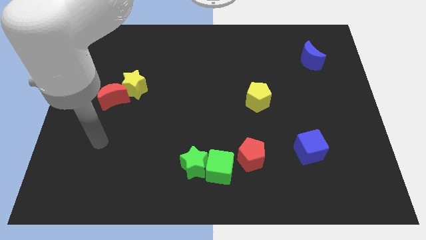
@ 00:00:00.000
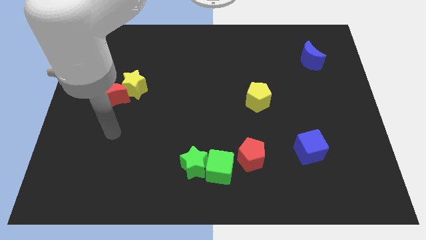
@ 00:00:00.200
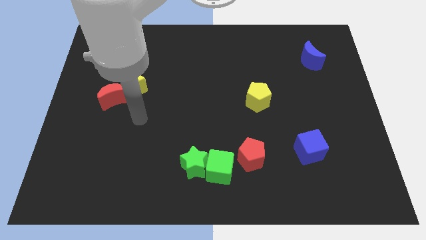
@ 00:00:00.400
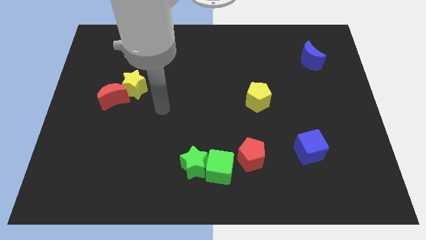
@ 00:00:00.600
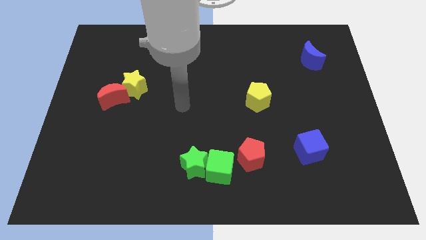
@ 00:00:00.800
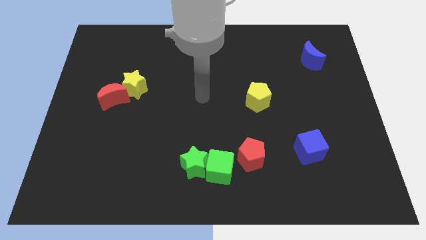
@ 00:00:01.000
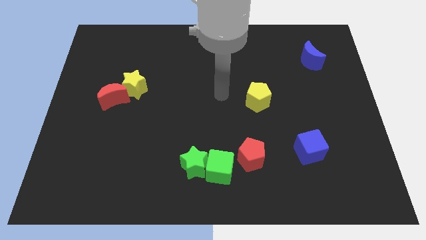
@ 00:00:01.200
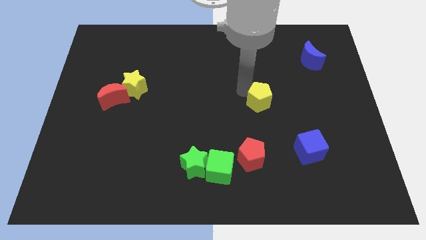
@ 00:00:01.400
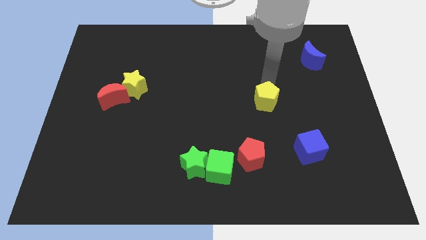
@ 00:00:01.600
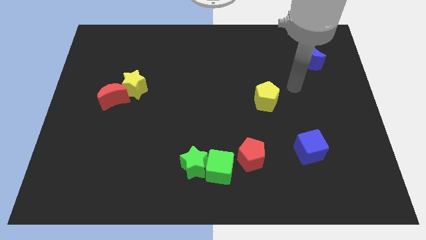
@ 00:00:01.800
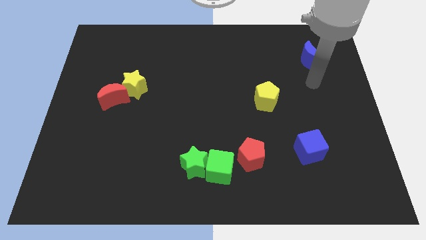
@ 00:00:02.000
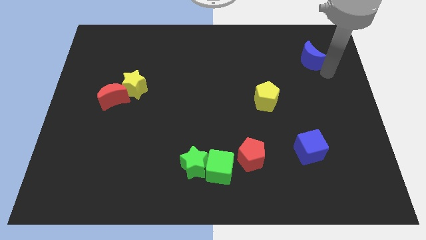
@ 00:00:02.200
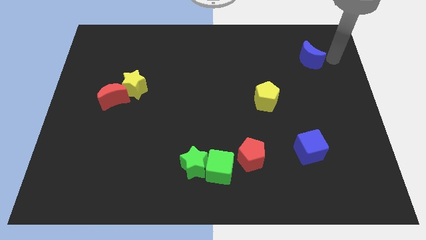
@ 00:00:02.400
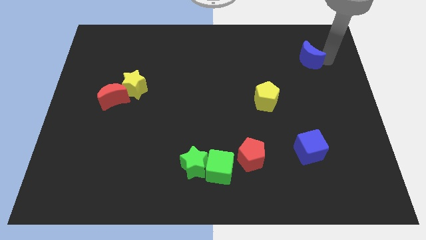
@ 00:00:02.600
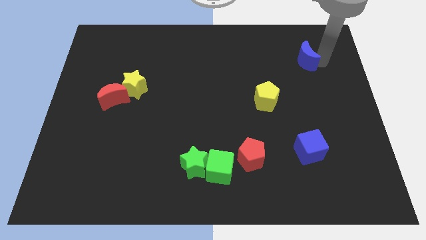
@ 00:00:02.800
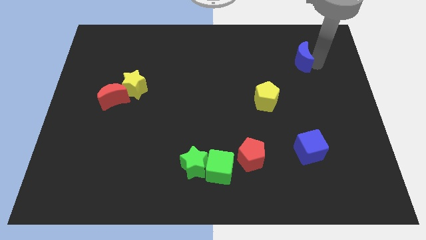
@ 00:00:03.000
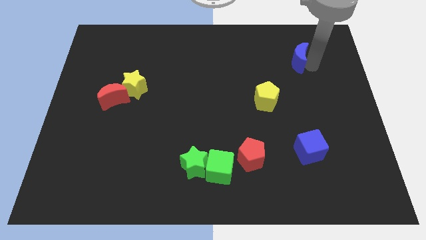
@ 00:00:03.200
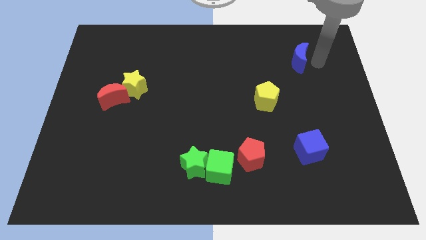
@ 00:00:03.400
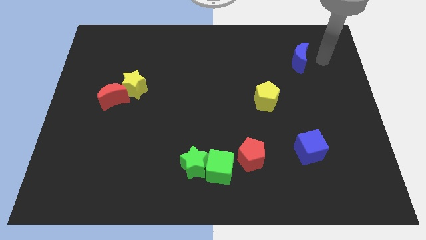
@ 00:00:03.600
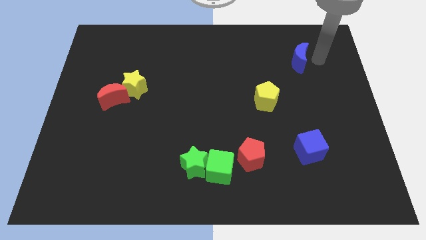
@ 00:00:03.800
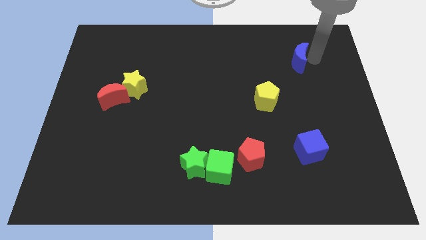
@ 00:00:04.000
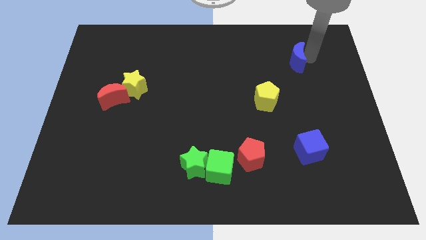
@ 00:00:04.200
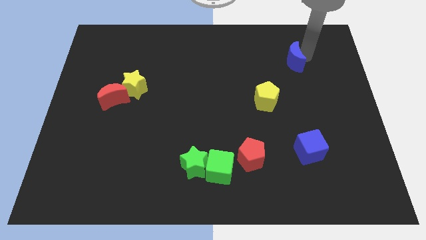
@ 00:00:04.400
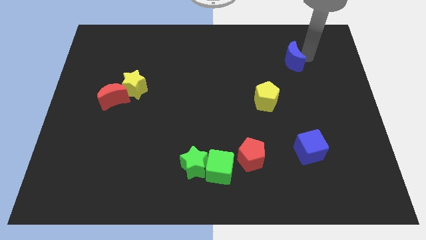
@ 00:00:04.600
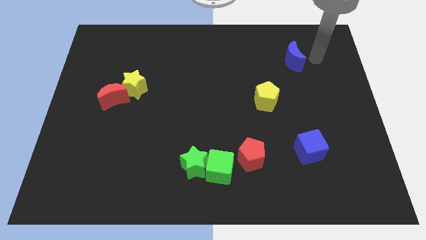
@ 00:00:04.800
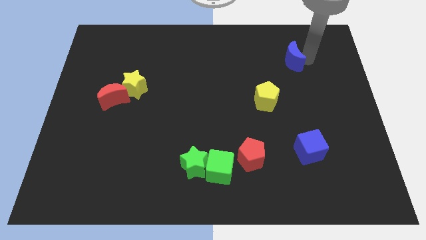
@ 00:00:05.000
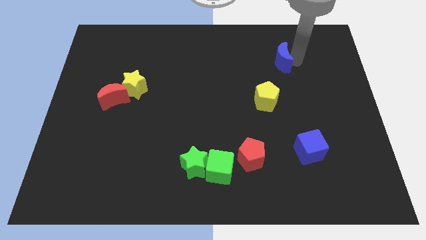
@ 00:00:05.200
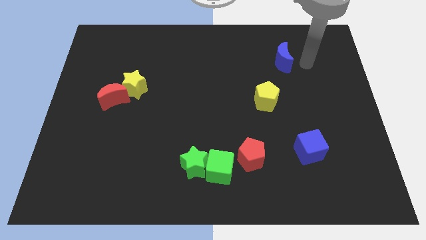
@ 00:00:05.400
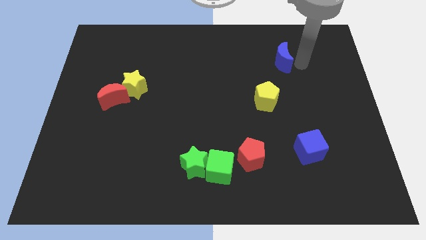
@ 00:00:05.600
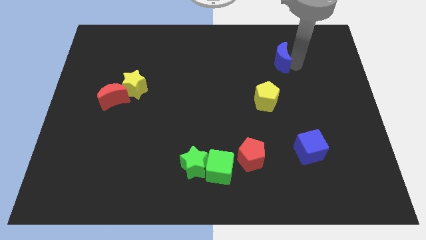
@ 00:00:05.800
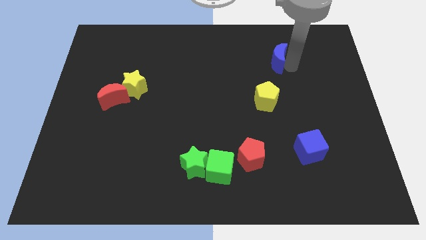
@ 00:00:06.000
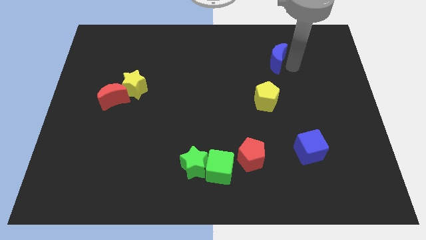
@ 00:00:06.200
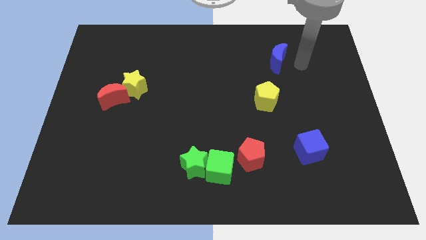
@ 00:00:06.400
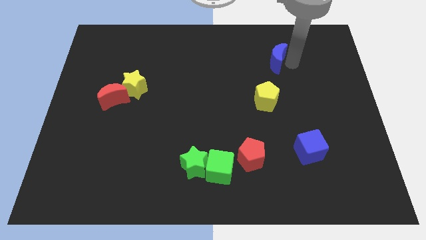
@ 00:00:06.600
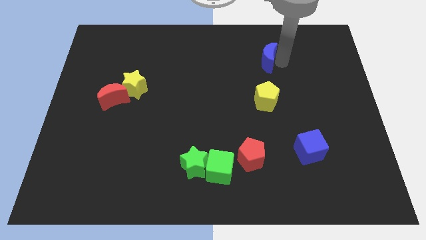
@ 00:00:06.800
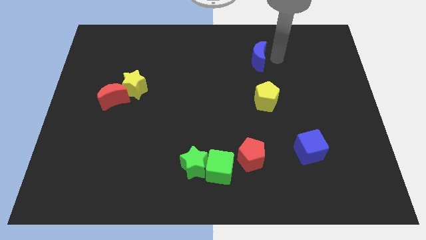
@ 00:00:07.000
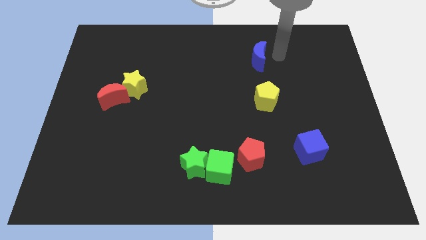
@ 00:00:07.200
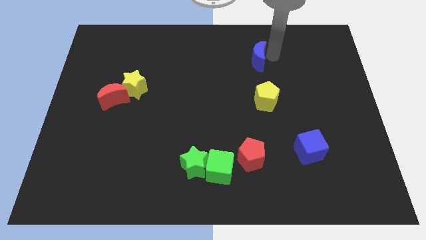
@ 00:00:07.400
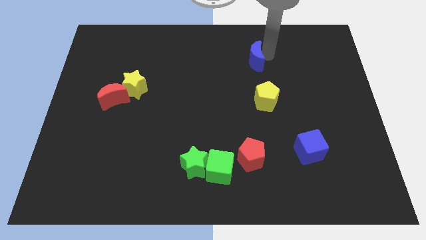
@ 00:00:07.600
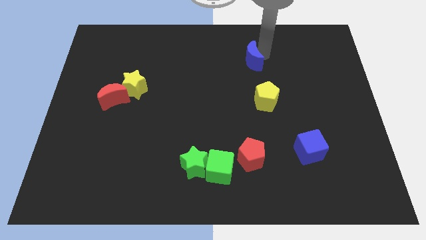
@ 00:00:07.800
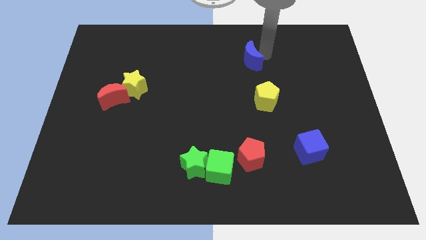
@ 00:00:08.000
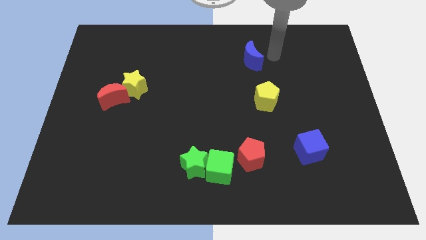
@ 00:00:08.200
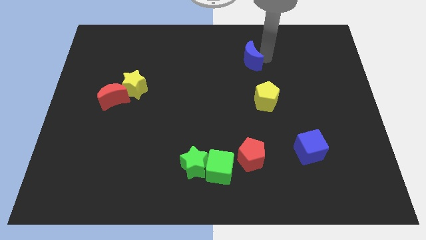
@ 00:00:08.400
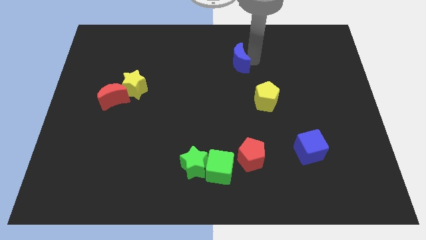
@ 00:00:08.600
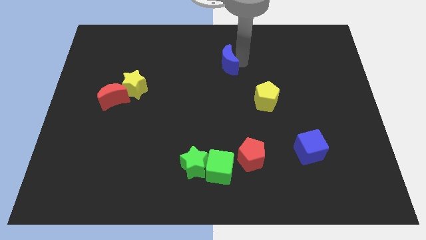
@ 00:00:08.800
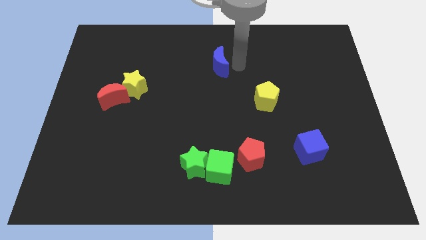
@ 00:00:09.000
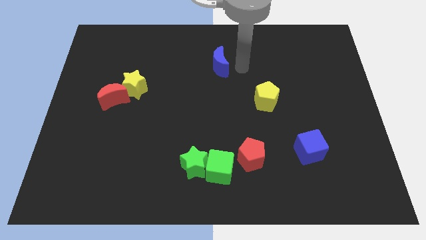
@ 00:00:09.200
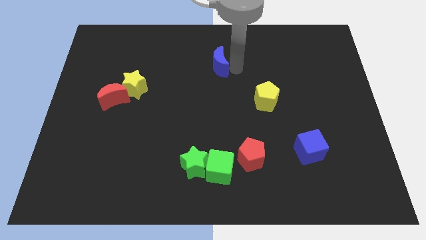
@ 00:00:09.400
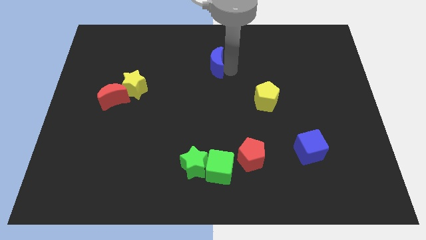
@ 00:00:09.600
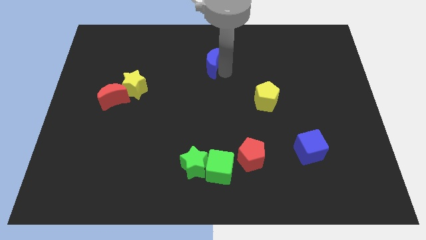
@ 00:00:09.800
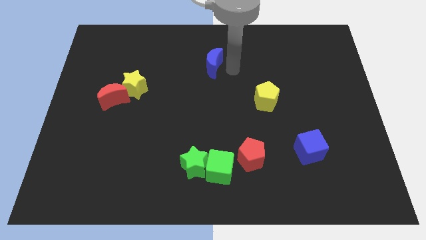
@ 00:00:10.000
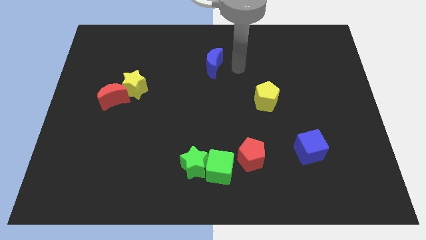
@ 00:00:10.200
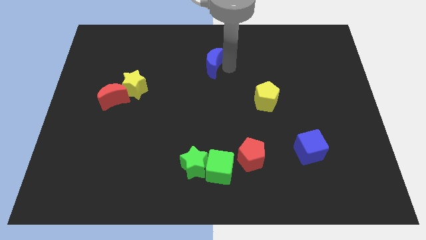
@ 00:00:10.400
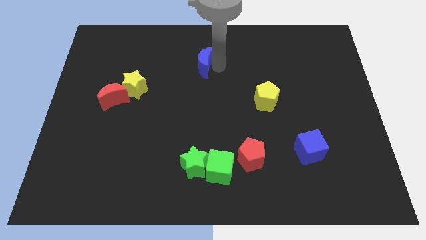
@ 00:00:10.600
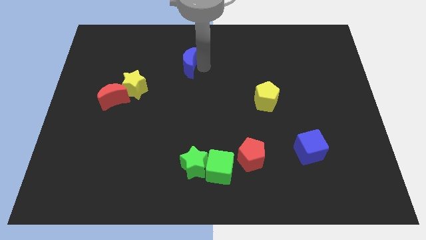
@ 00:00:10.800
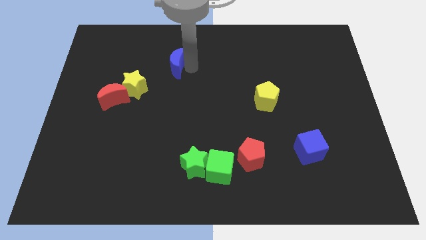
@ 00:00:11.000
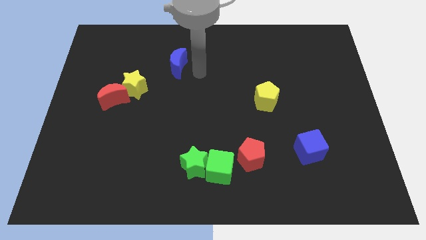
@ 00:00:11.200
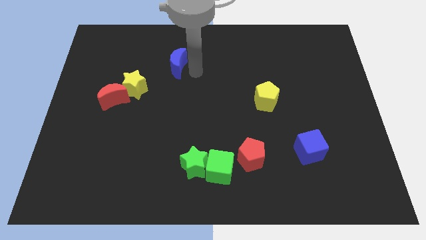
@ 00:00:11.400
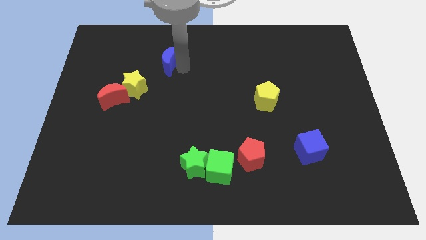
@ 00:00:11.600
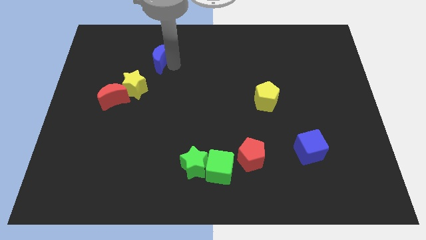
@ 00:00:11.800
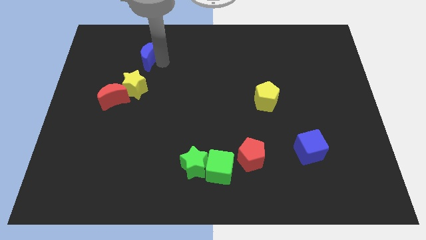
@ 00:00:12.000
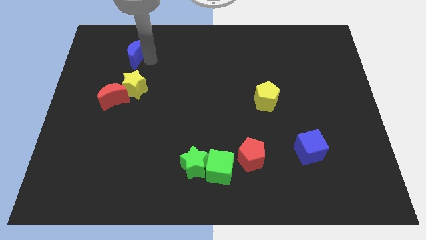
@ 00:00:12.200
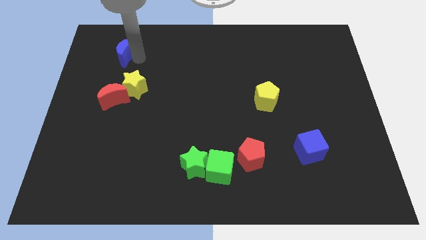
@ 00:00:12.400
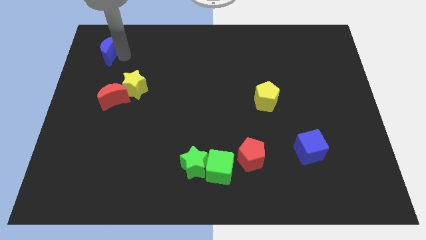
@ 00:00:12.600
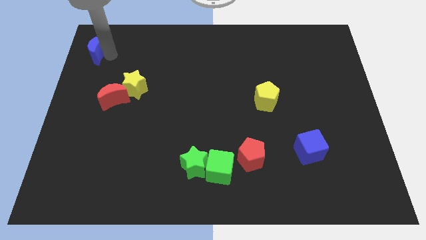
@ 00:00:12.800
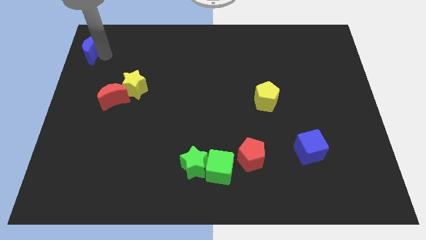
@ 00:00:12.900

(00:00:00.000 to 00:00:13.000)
push the blue moon to the top left of the board
